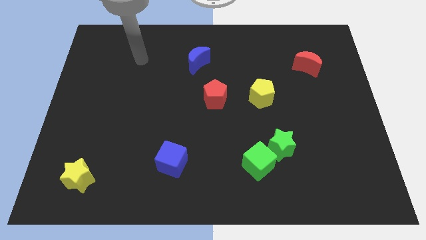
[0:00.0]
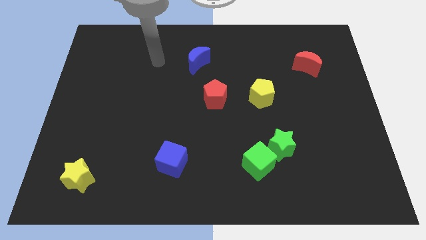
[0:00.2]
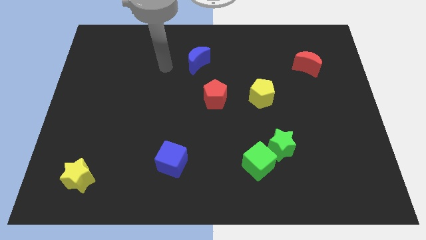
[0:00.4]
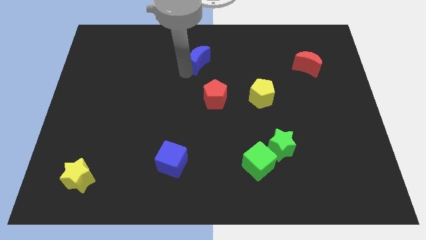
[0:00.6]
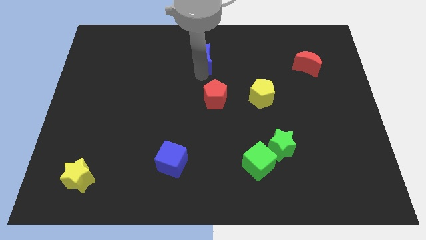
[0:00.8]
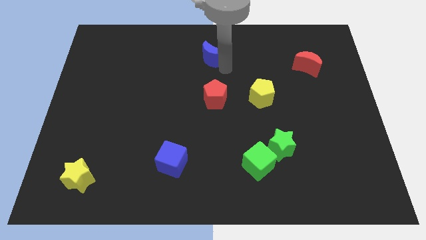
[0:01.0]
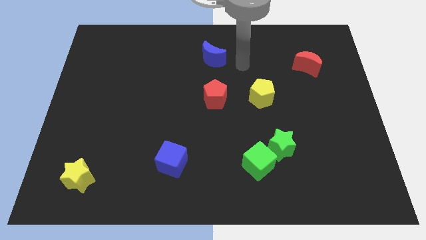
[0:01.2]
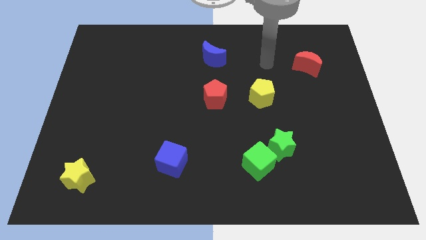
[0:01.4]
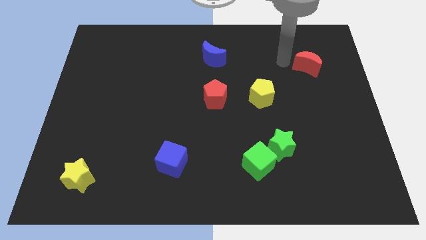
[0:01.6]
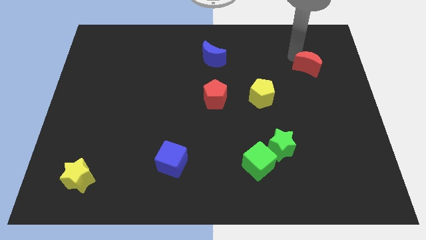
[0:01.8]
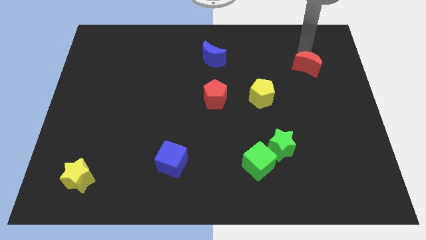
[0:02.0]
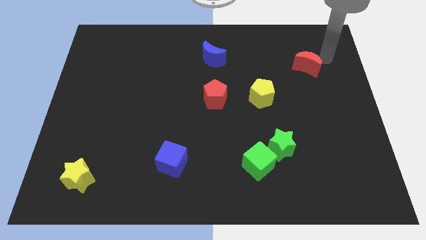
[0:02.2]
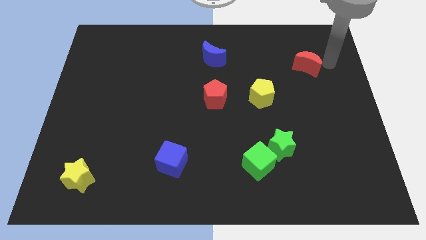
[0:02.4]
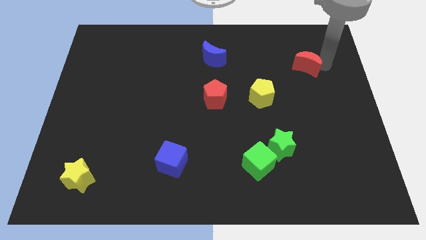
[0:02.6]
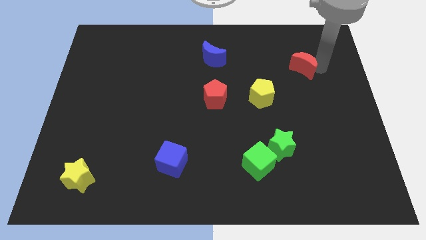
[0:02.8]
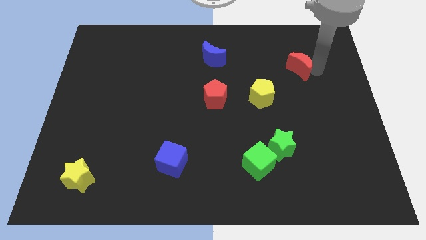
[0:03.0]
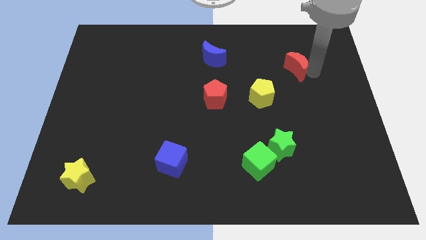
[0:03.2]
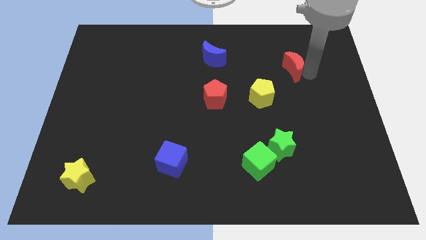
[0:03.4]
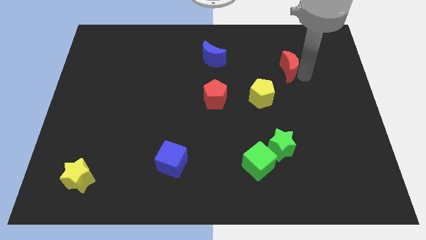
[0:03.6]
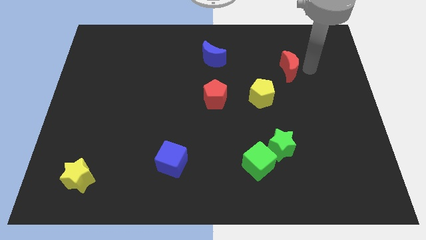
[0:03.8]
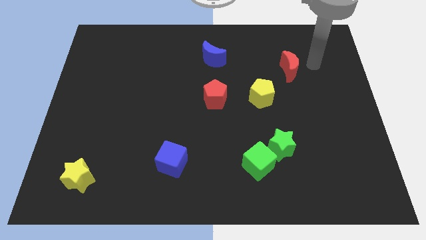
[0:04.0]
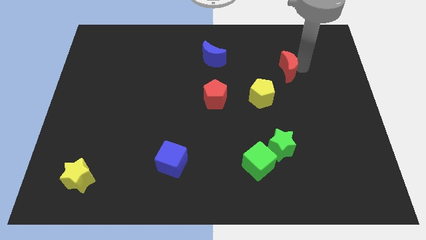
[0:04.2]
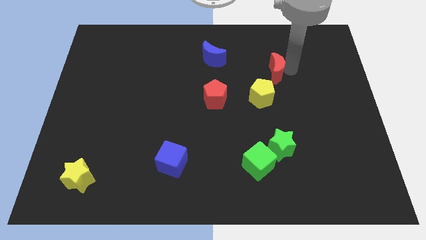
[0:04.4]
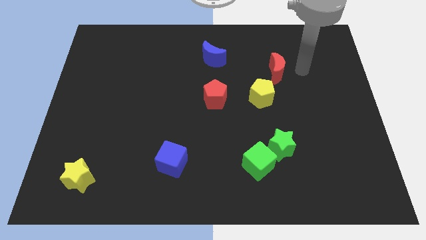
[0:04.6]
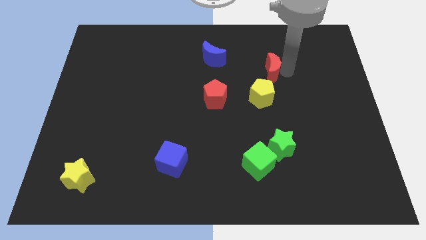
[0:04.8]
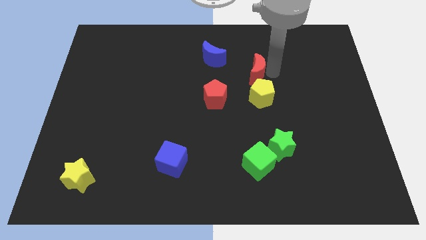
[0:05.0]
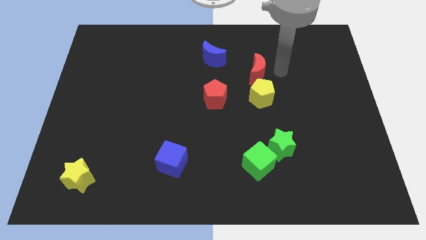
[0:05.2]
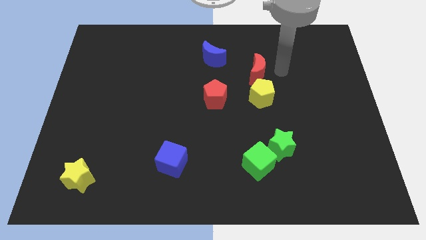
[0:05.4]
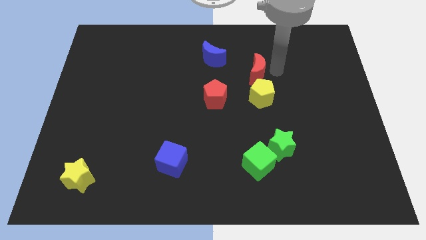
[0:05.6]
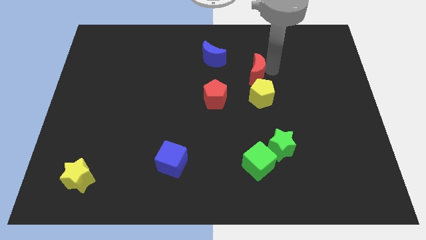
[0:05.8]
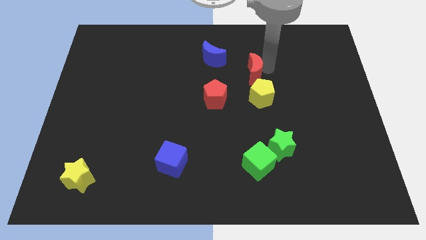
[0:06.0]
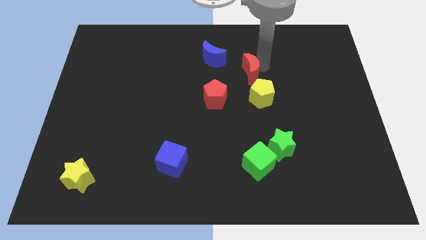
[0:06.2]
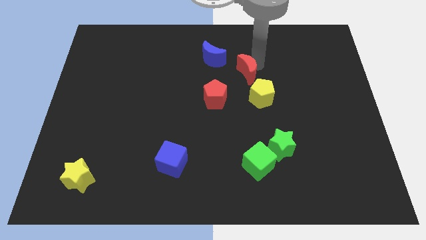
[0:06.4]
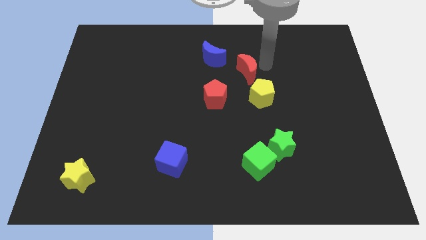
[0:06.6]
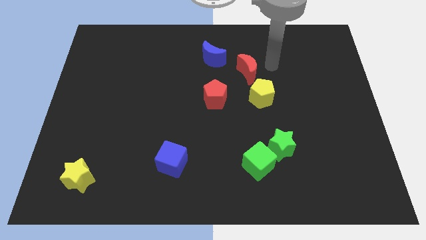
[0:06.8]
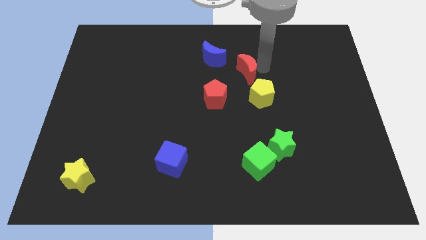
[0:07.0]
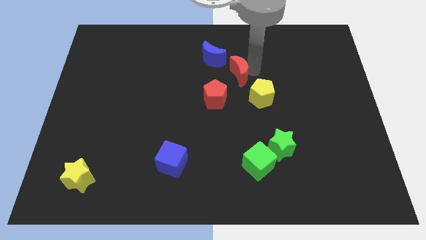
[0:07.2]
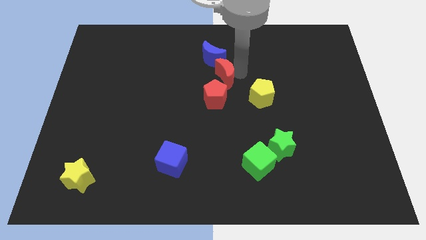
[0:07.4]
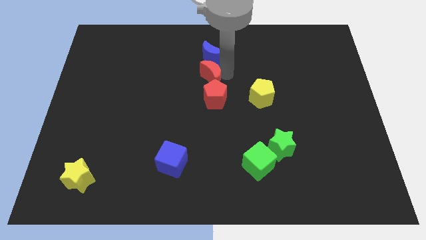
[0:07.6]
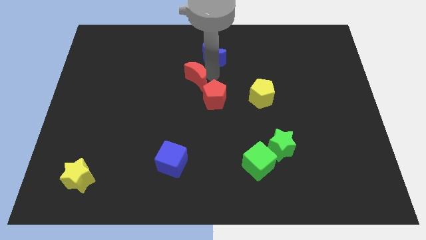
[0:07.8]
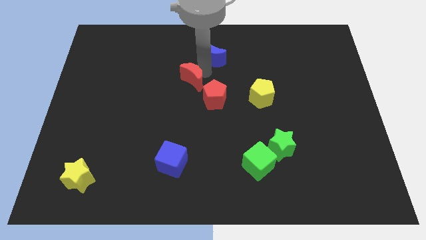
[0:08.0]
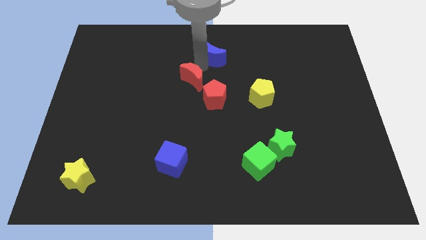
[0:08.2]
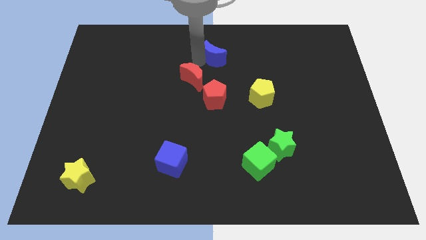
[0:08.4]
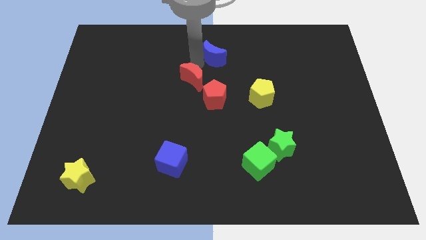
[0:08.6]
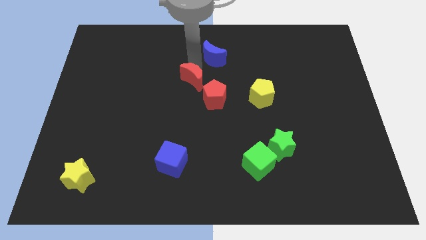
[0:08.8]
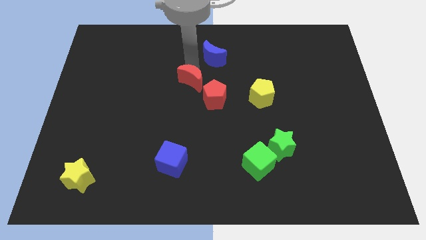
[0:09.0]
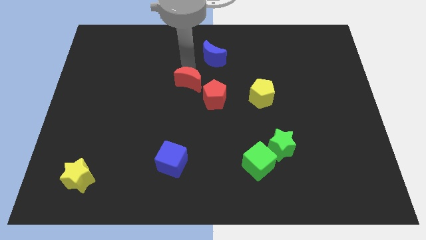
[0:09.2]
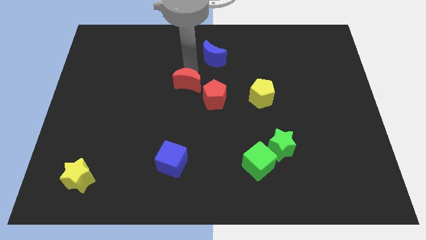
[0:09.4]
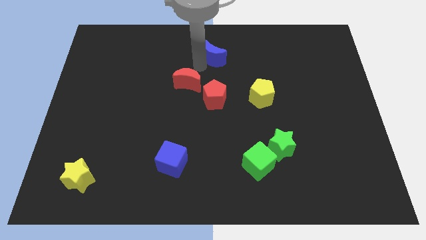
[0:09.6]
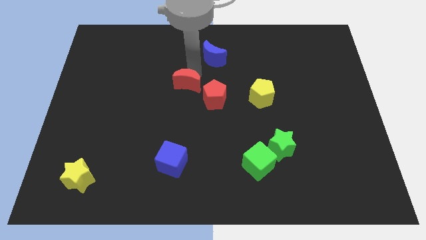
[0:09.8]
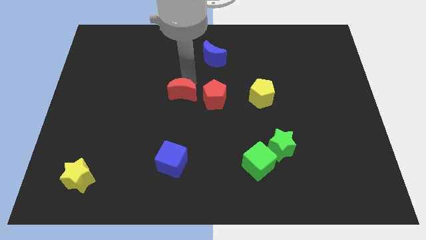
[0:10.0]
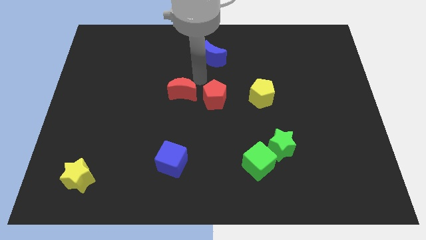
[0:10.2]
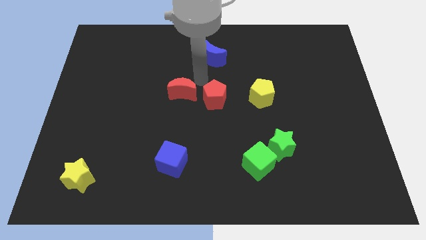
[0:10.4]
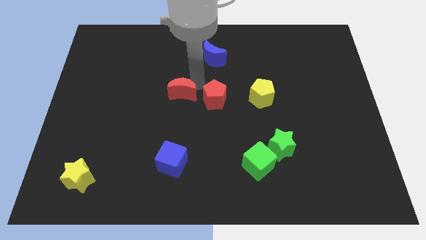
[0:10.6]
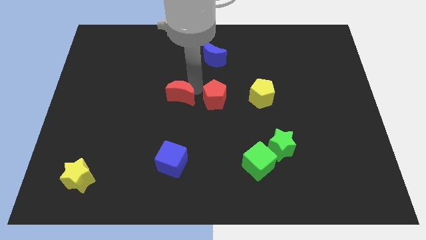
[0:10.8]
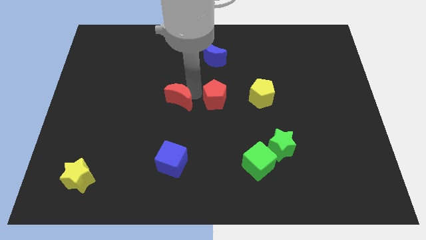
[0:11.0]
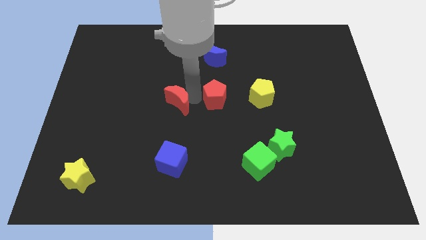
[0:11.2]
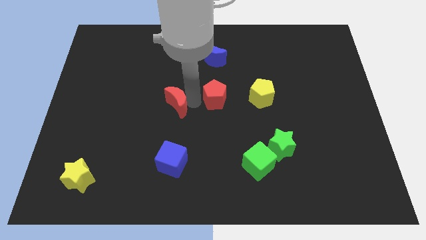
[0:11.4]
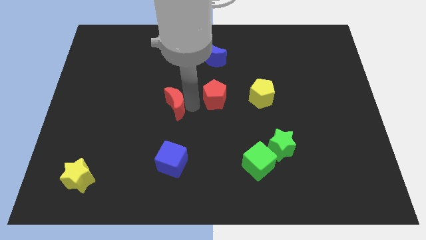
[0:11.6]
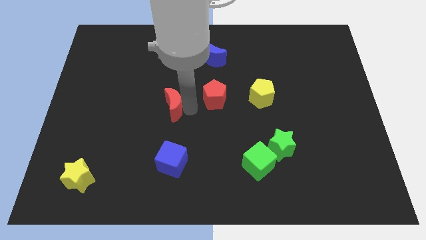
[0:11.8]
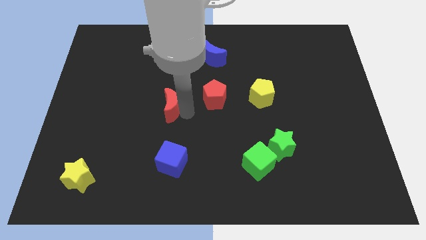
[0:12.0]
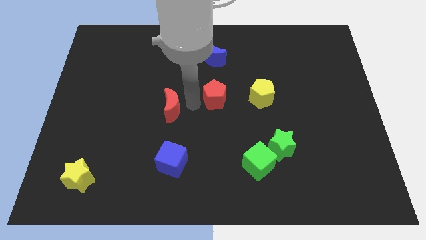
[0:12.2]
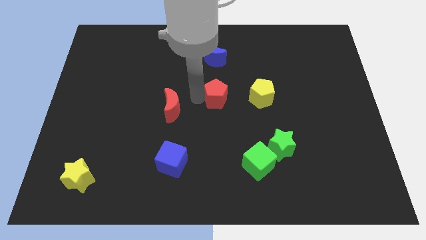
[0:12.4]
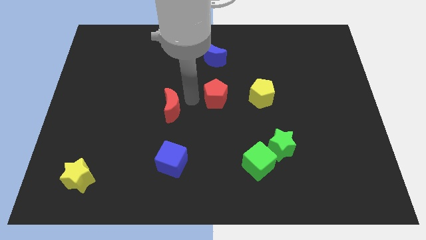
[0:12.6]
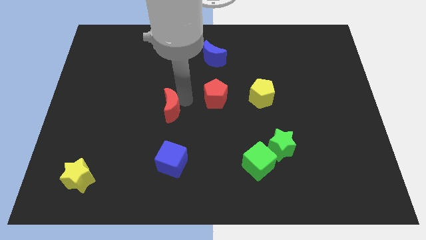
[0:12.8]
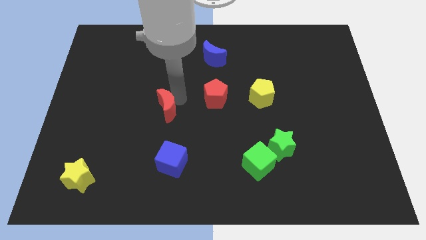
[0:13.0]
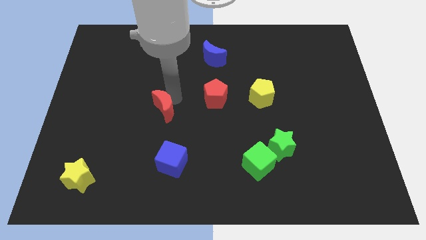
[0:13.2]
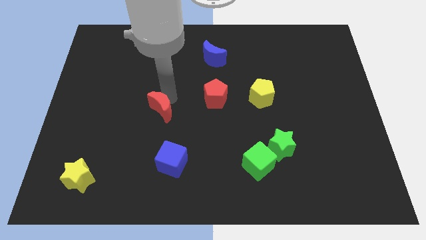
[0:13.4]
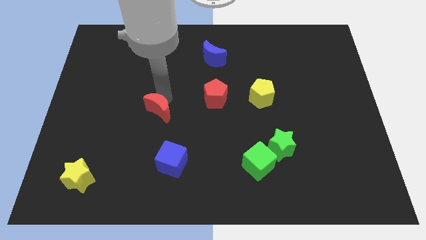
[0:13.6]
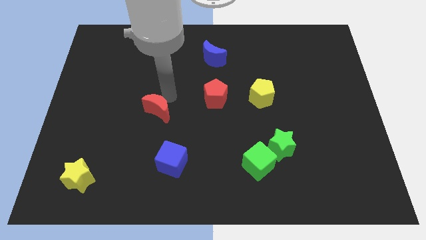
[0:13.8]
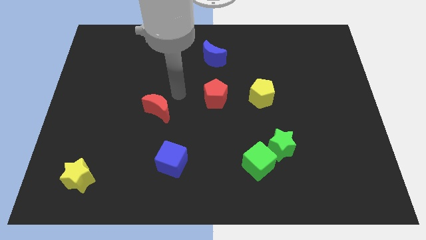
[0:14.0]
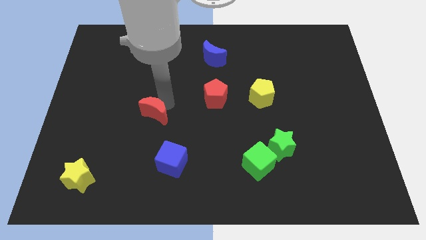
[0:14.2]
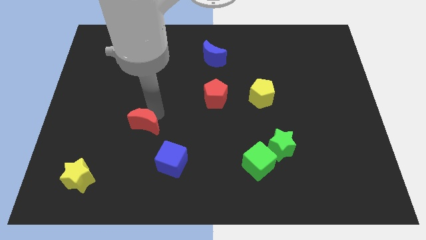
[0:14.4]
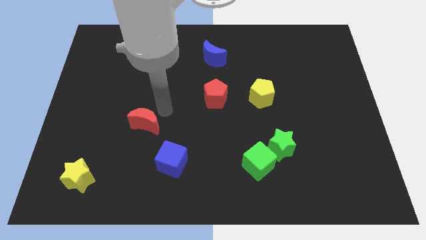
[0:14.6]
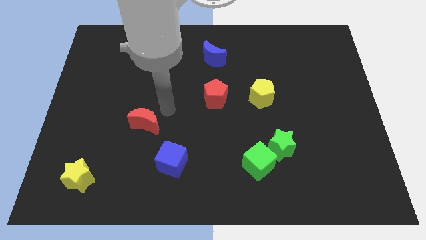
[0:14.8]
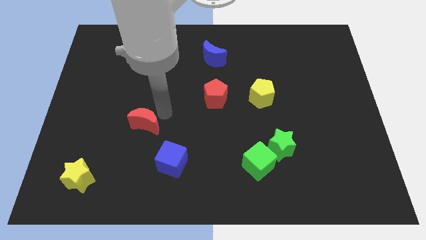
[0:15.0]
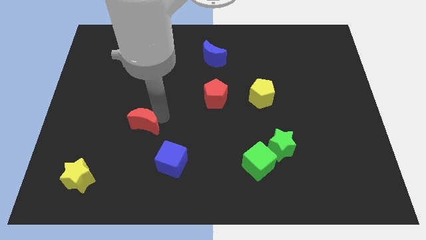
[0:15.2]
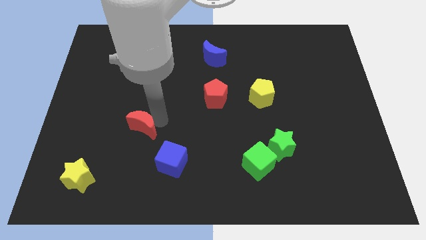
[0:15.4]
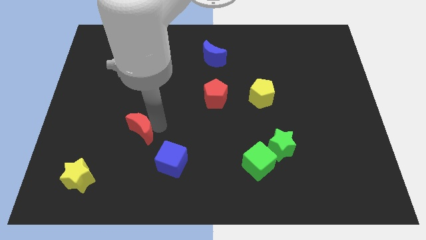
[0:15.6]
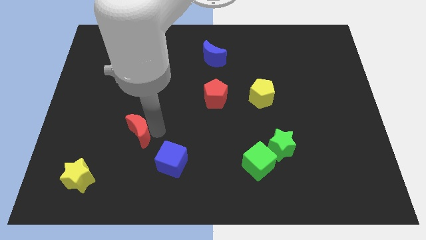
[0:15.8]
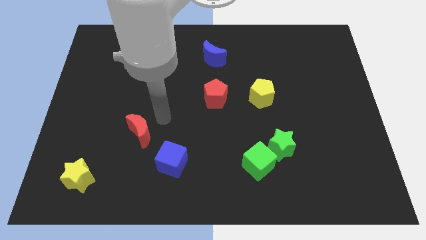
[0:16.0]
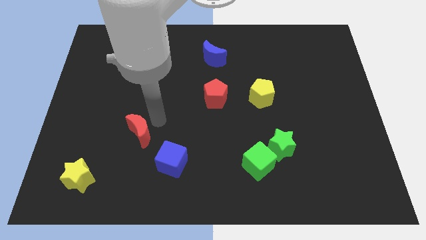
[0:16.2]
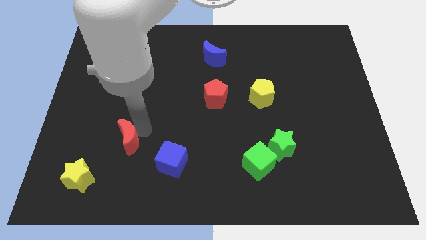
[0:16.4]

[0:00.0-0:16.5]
move the red moon diagonally up and to the right of the yellow star
